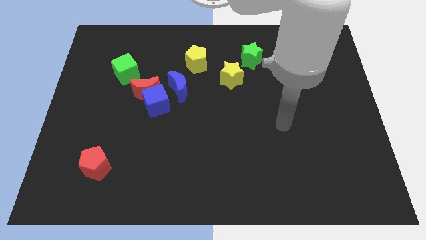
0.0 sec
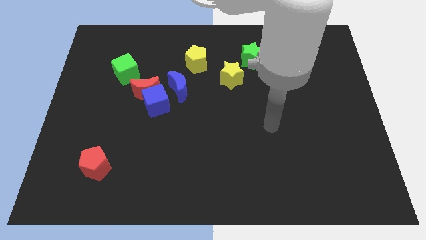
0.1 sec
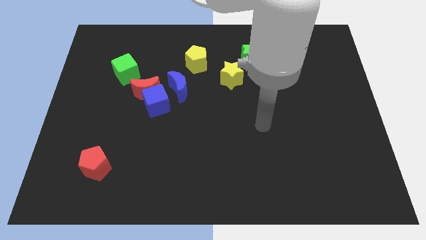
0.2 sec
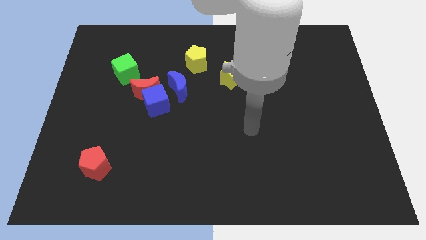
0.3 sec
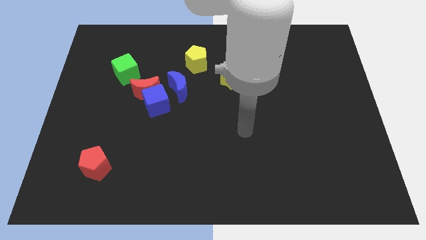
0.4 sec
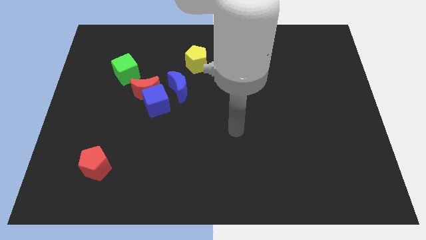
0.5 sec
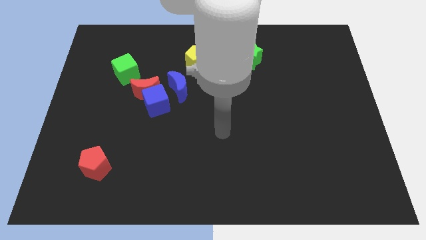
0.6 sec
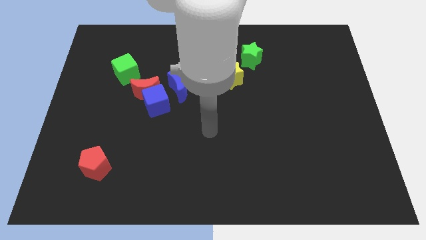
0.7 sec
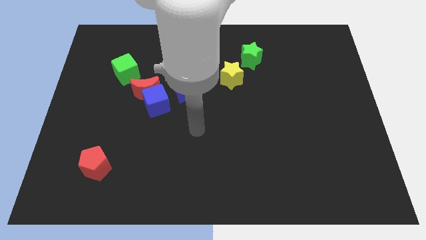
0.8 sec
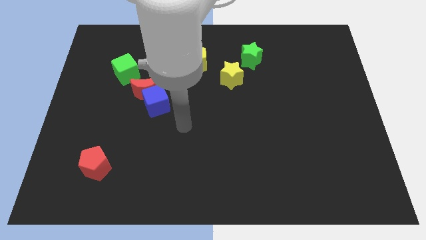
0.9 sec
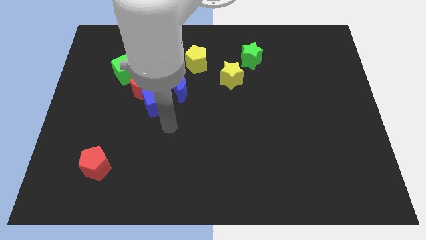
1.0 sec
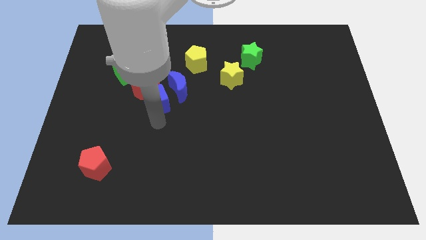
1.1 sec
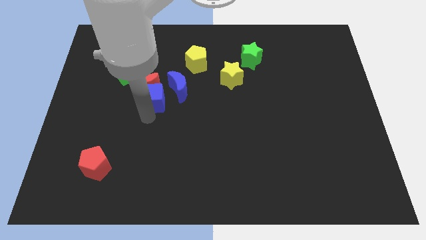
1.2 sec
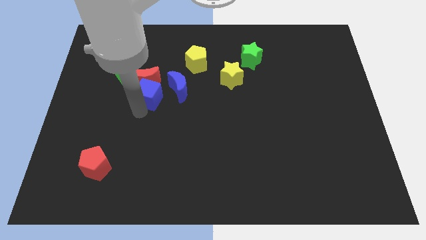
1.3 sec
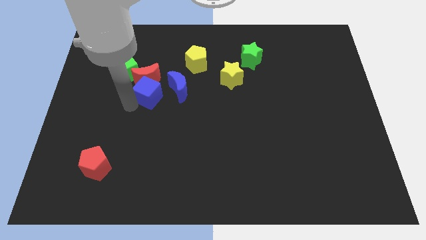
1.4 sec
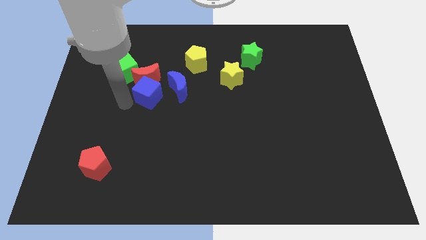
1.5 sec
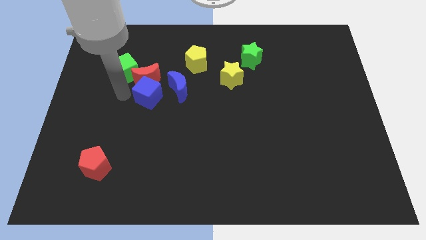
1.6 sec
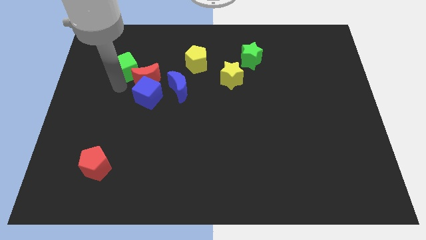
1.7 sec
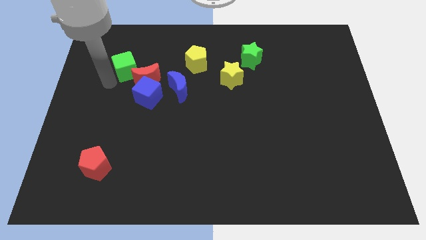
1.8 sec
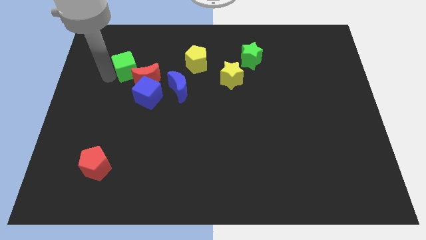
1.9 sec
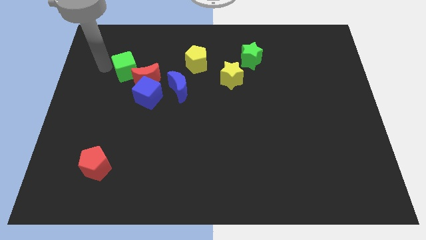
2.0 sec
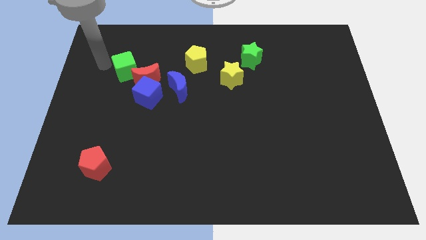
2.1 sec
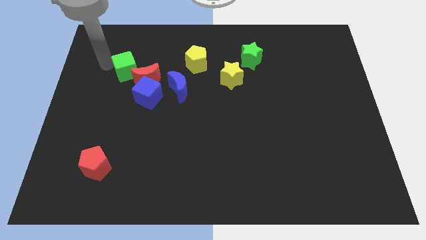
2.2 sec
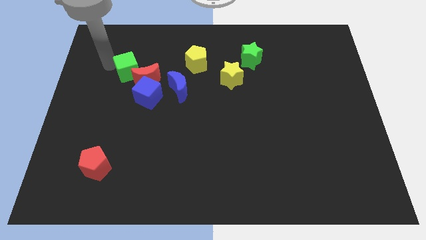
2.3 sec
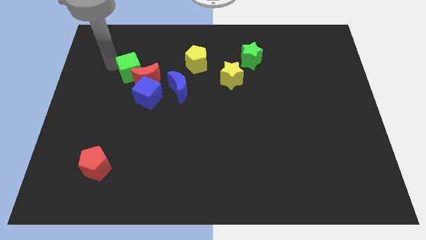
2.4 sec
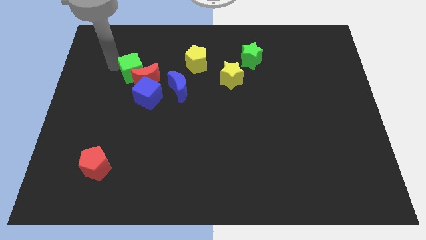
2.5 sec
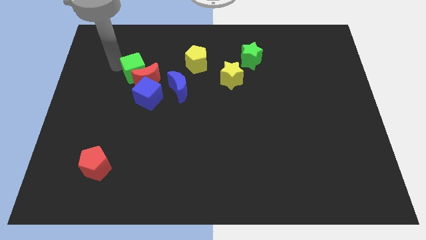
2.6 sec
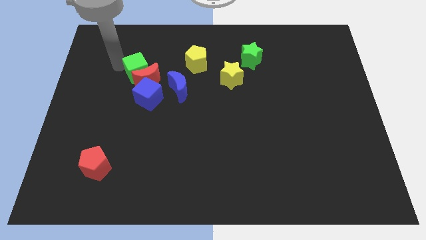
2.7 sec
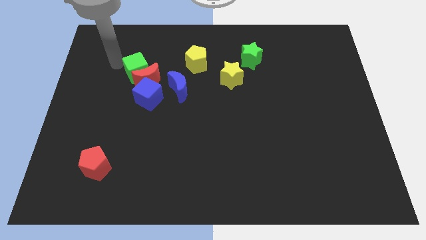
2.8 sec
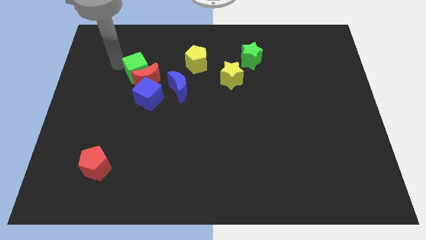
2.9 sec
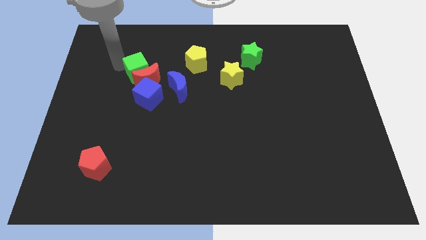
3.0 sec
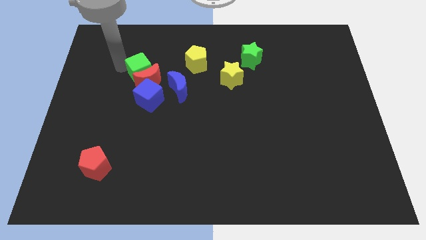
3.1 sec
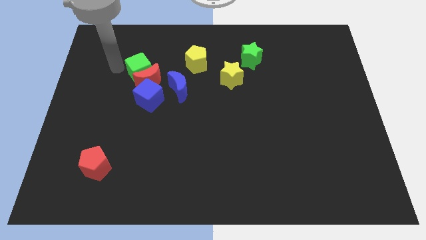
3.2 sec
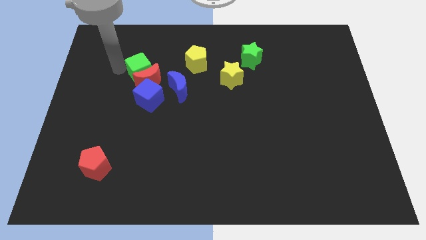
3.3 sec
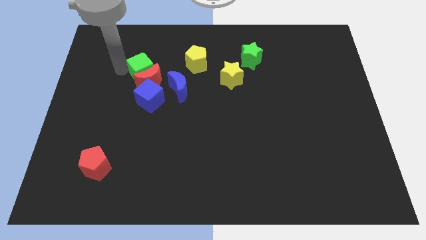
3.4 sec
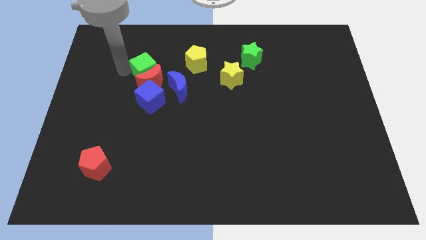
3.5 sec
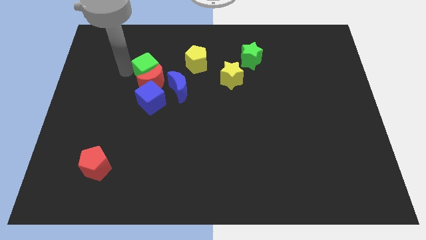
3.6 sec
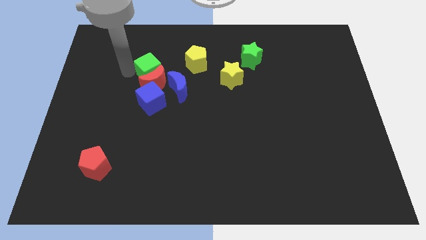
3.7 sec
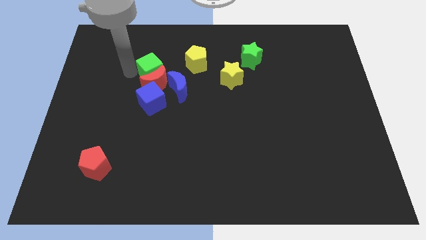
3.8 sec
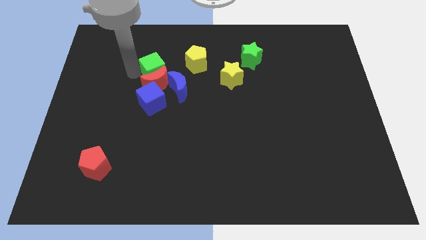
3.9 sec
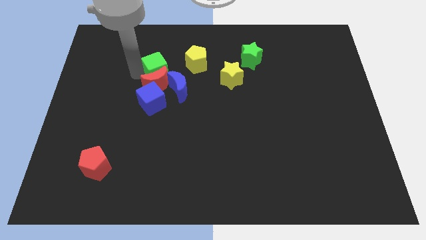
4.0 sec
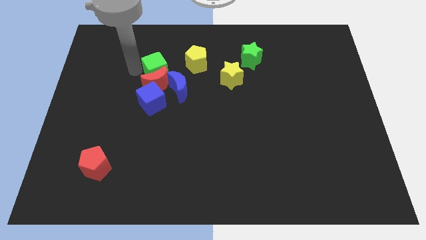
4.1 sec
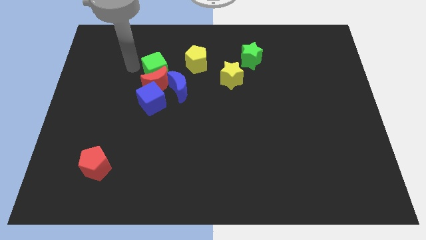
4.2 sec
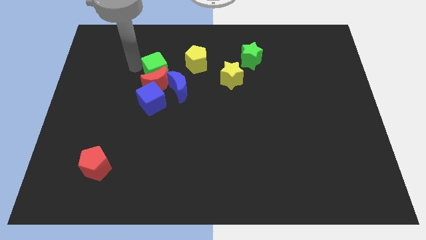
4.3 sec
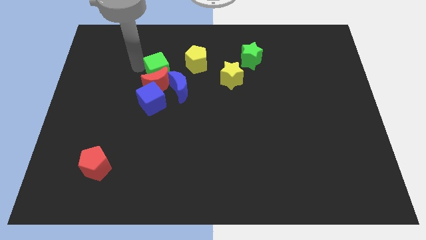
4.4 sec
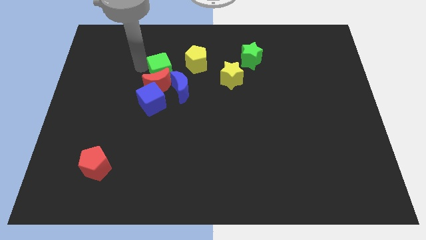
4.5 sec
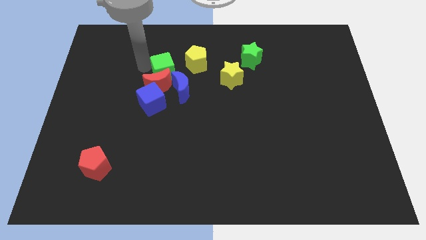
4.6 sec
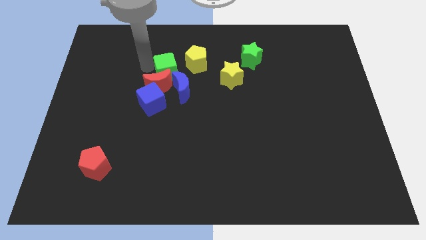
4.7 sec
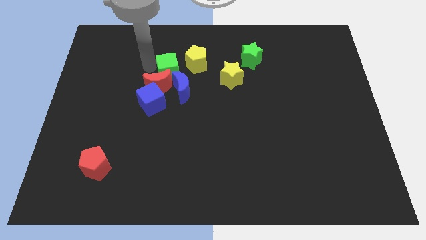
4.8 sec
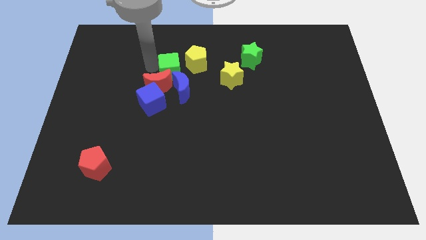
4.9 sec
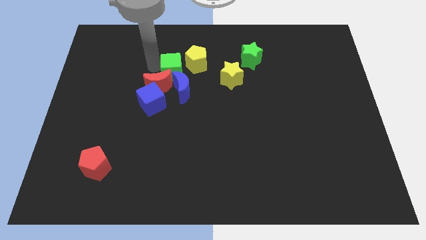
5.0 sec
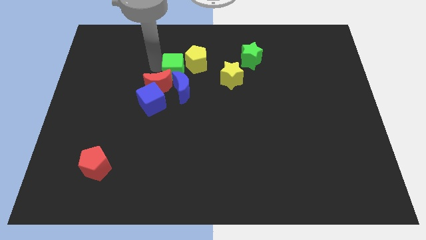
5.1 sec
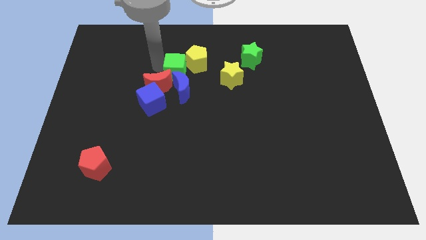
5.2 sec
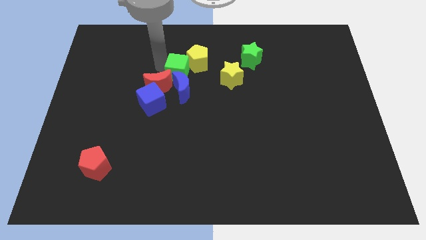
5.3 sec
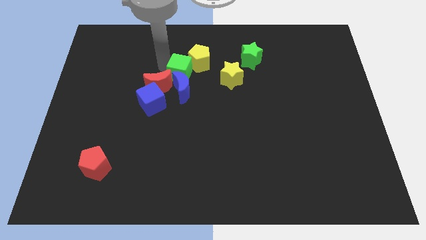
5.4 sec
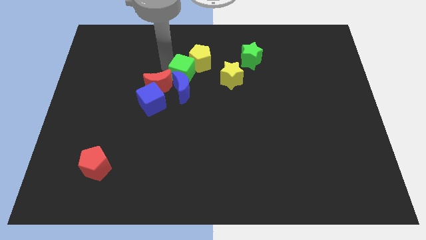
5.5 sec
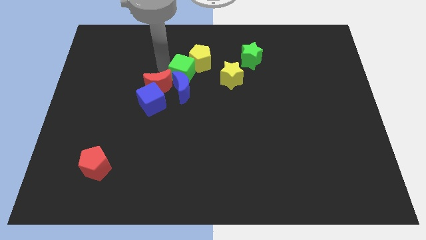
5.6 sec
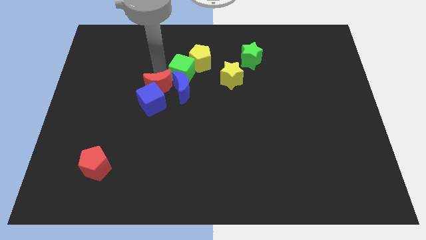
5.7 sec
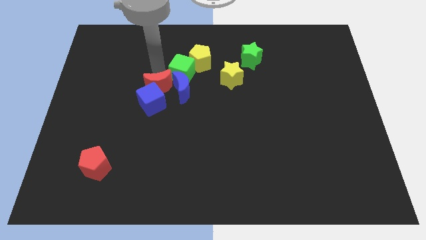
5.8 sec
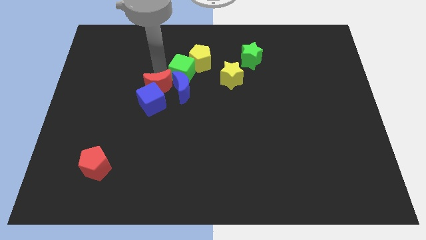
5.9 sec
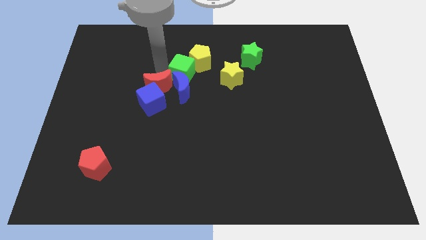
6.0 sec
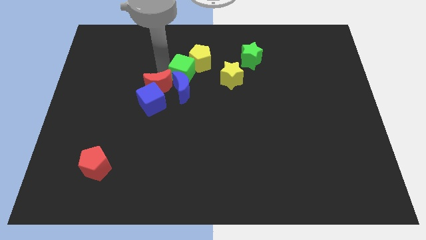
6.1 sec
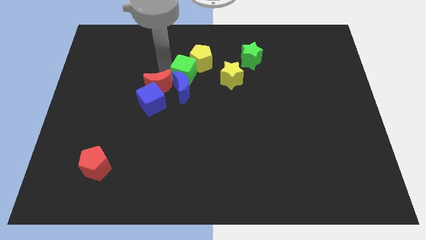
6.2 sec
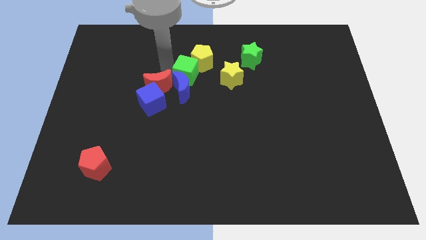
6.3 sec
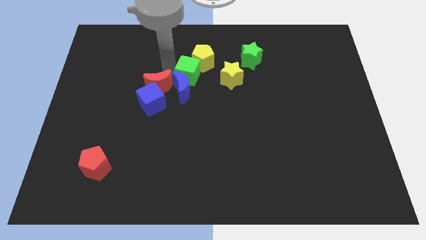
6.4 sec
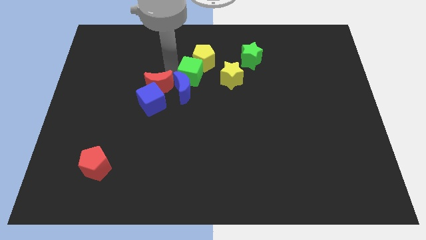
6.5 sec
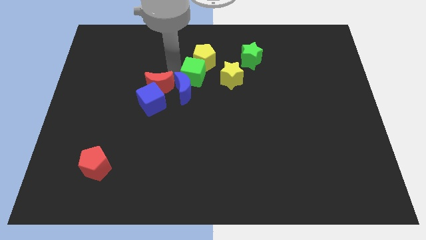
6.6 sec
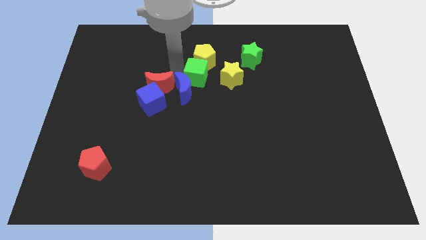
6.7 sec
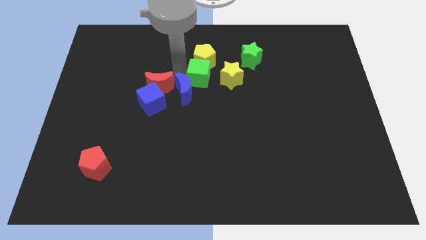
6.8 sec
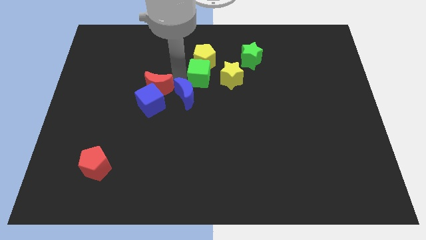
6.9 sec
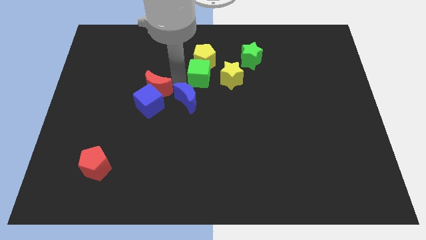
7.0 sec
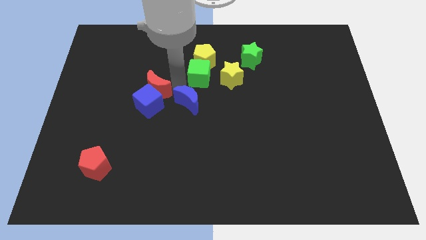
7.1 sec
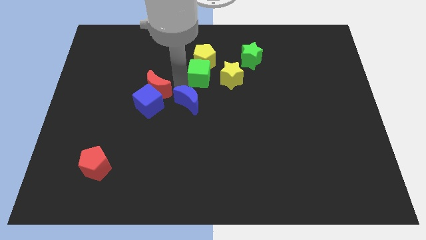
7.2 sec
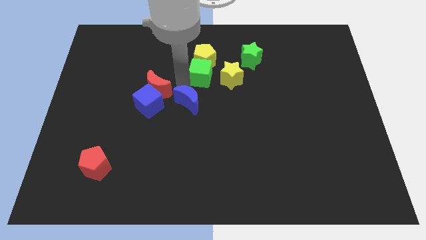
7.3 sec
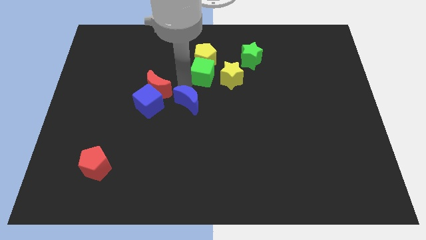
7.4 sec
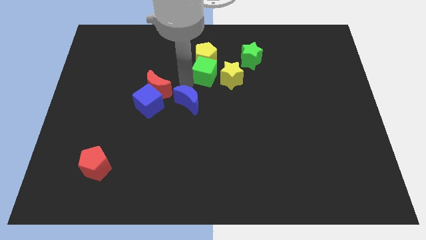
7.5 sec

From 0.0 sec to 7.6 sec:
push the green cube to the right

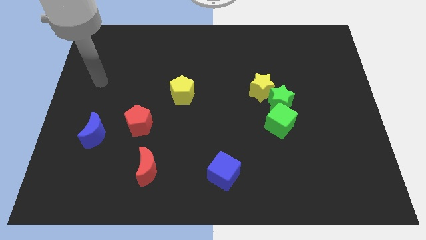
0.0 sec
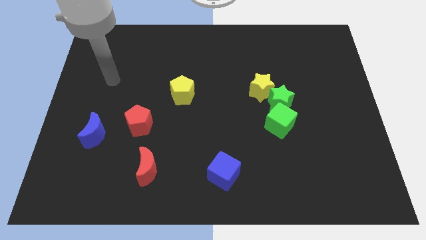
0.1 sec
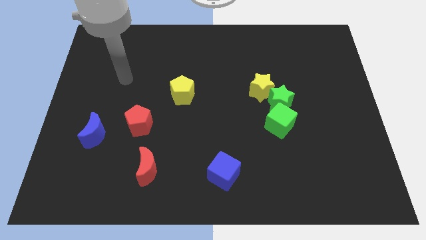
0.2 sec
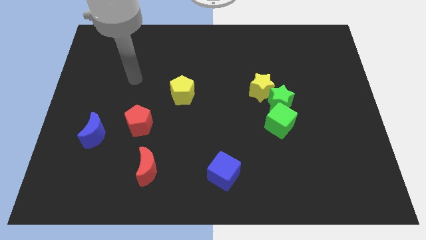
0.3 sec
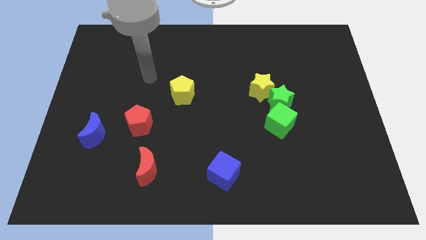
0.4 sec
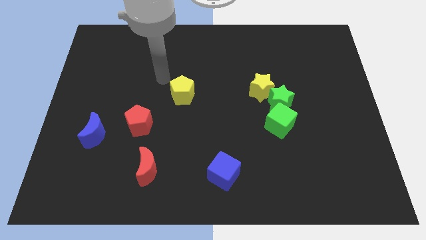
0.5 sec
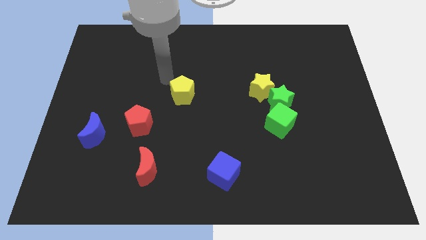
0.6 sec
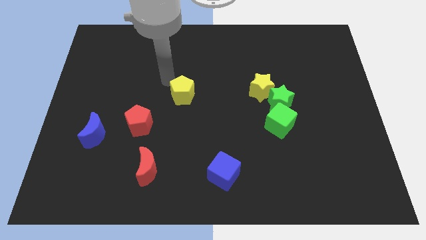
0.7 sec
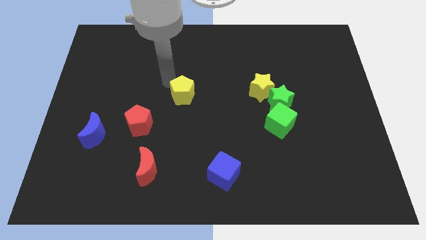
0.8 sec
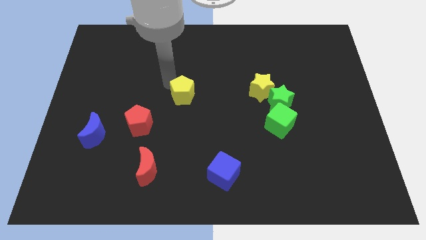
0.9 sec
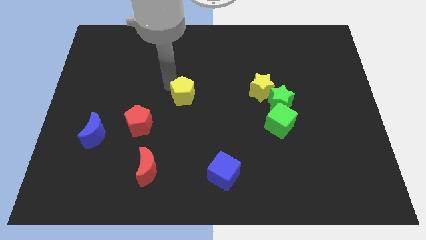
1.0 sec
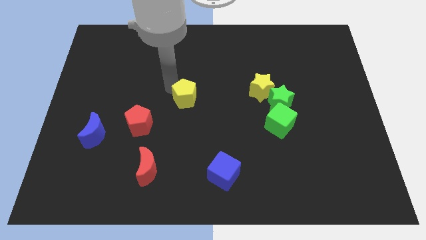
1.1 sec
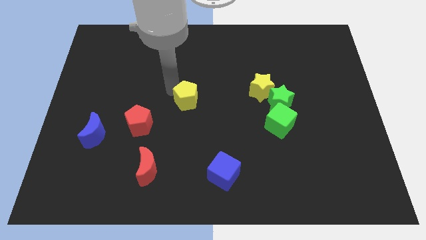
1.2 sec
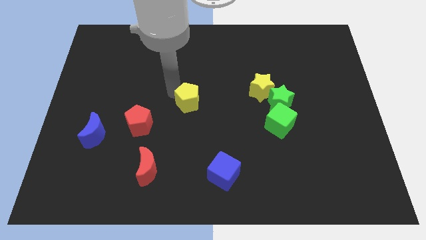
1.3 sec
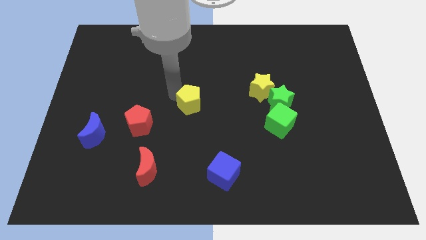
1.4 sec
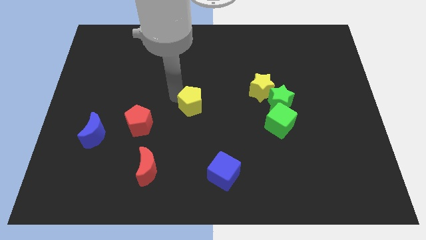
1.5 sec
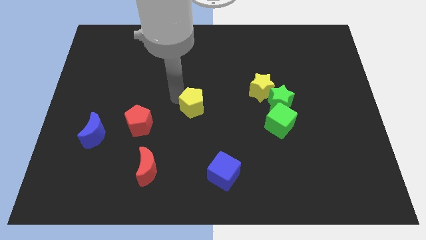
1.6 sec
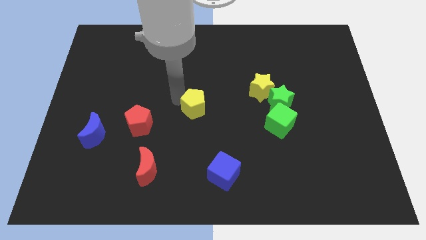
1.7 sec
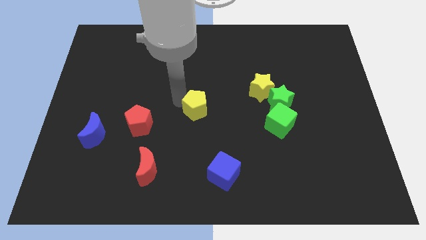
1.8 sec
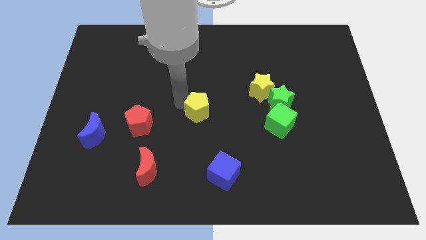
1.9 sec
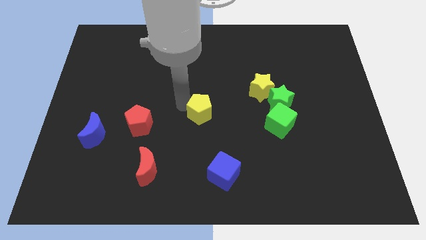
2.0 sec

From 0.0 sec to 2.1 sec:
push the yellow pentagon down and to the right somewhat
